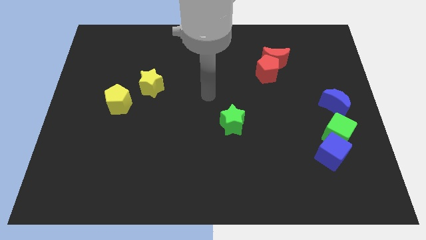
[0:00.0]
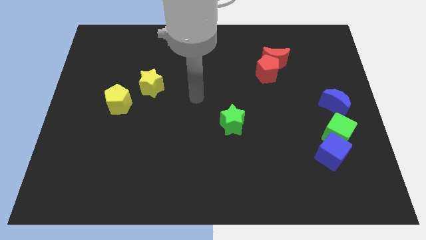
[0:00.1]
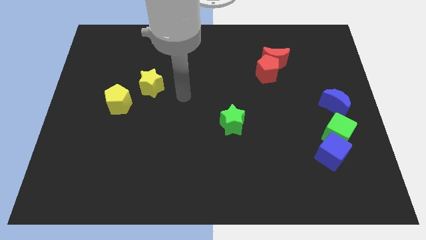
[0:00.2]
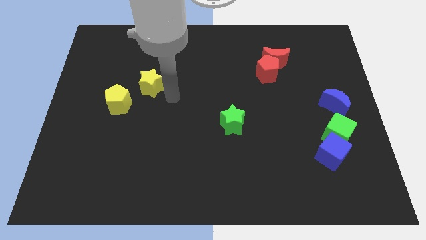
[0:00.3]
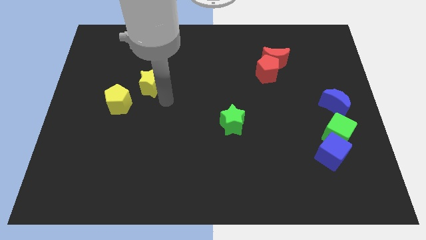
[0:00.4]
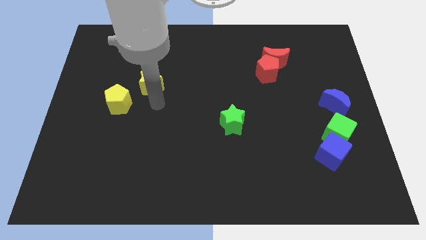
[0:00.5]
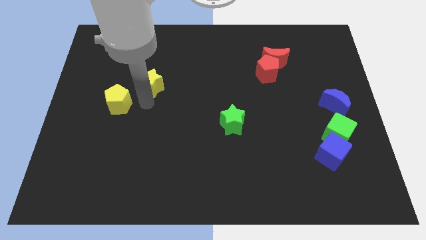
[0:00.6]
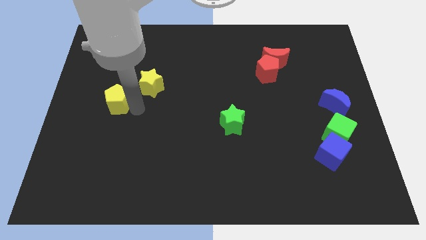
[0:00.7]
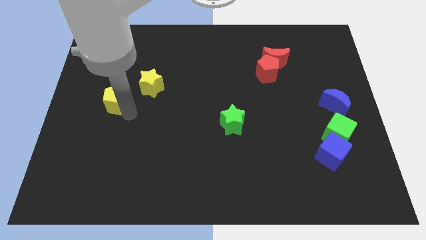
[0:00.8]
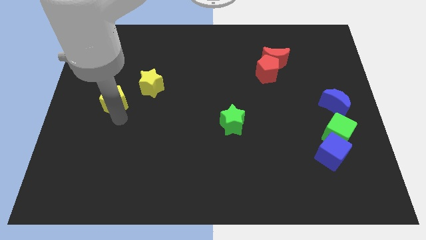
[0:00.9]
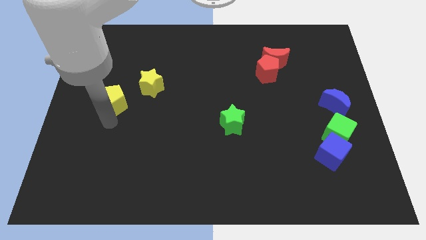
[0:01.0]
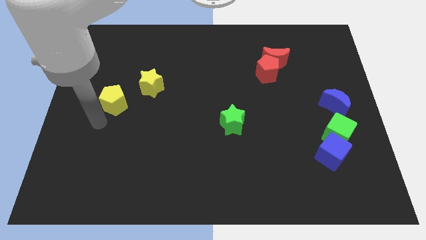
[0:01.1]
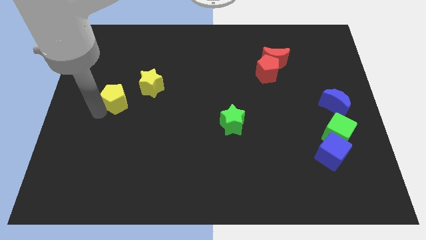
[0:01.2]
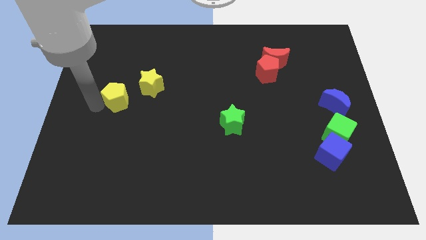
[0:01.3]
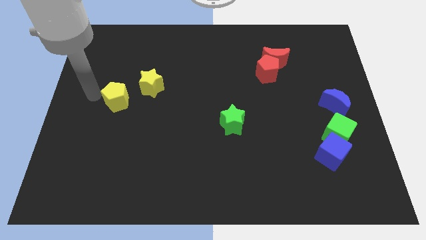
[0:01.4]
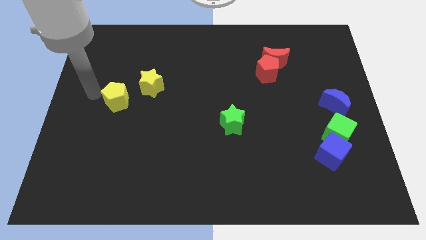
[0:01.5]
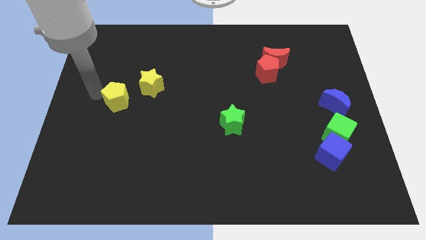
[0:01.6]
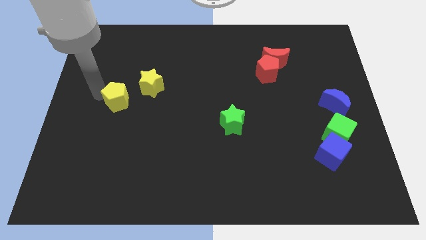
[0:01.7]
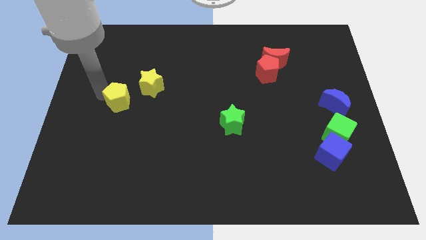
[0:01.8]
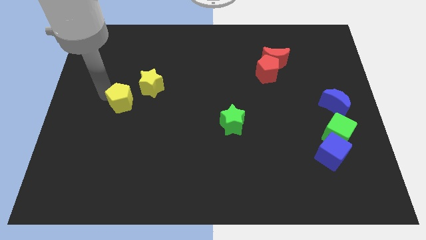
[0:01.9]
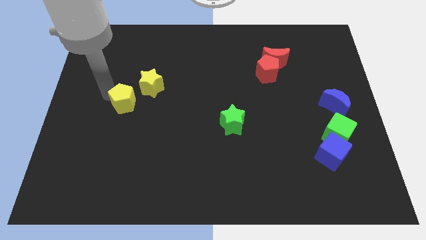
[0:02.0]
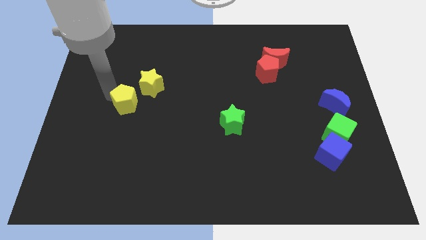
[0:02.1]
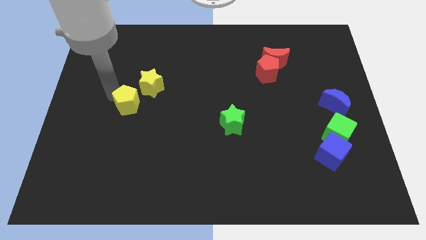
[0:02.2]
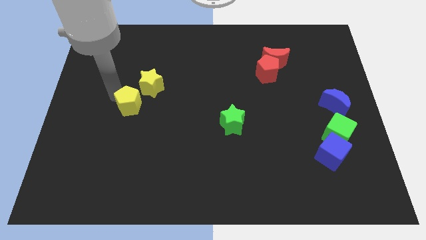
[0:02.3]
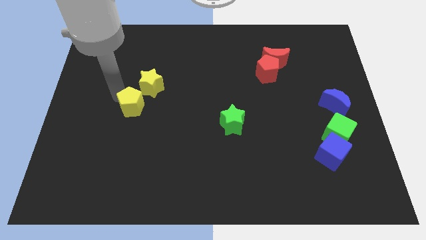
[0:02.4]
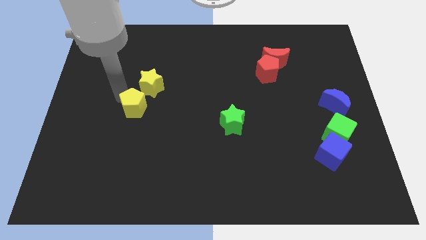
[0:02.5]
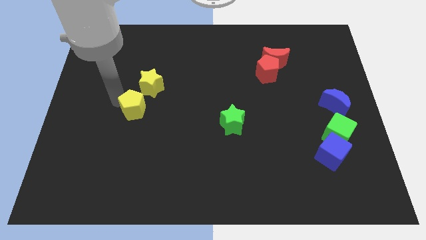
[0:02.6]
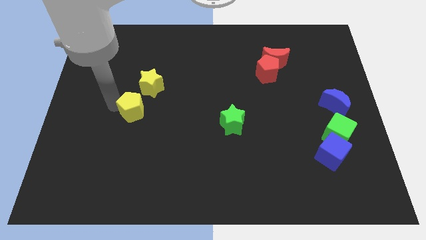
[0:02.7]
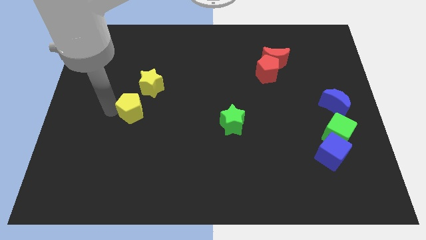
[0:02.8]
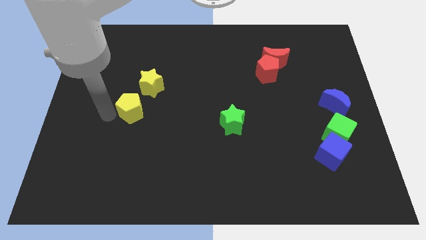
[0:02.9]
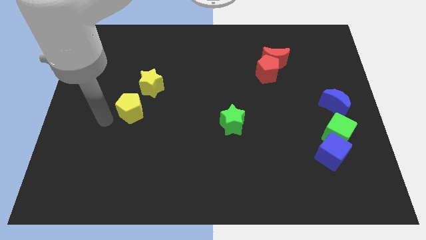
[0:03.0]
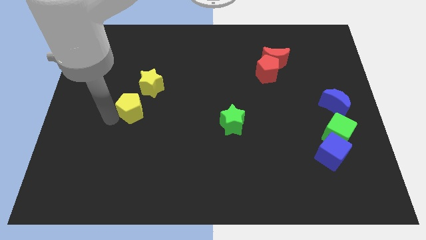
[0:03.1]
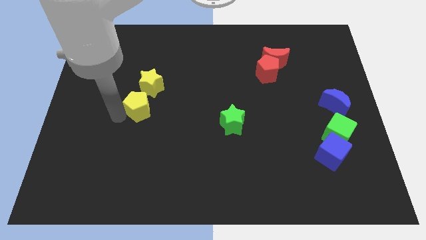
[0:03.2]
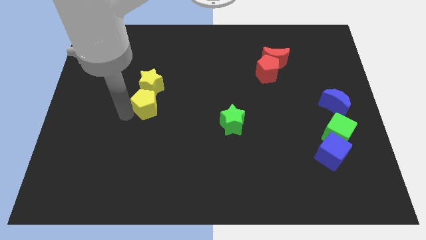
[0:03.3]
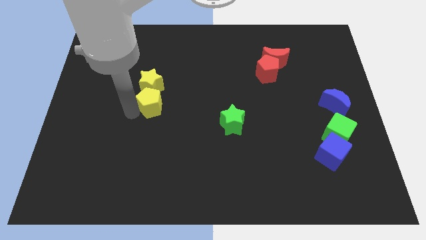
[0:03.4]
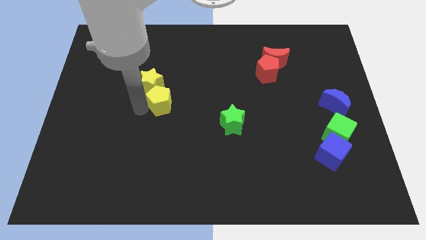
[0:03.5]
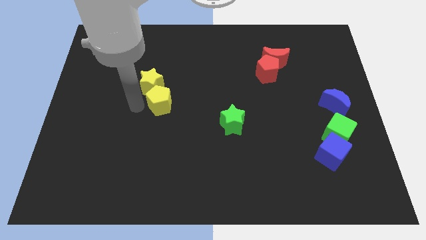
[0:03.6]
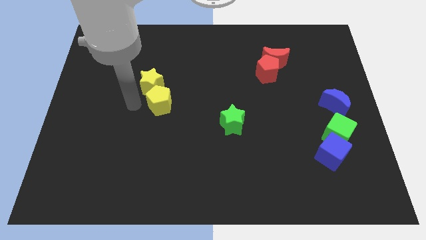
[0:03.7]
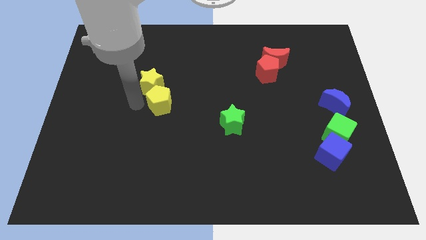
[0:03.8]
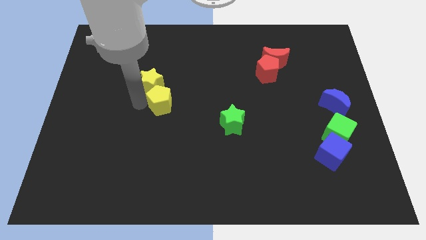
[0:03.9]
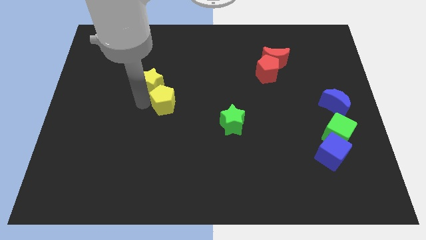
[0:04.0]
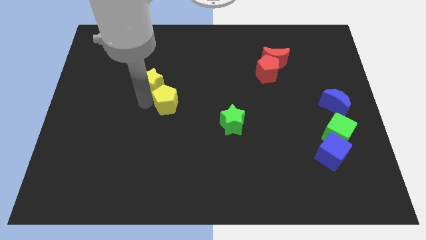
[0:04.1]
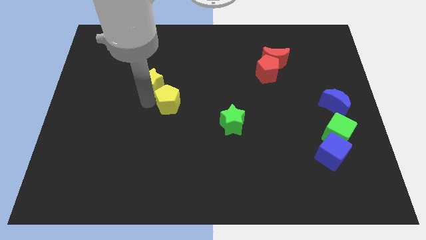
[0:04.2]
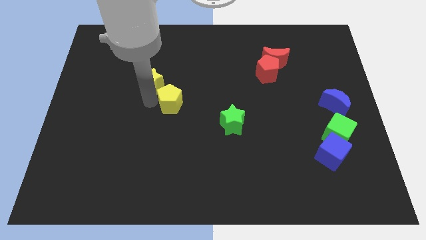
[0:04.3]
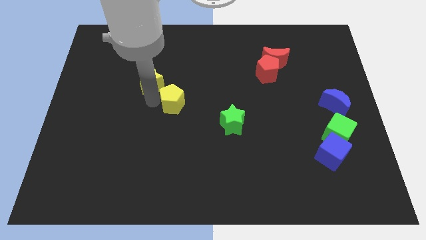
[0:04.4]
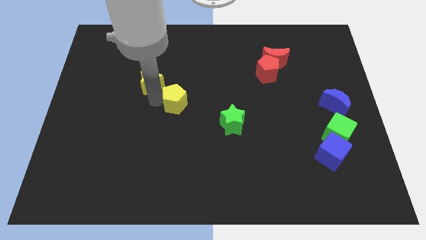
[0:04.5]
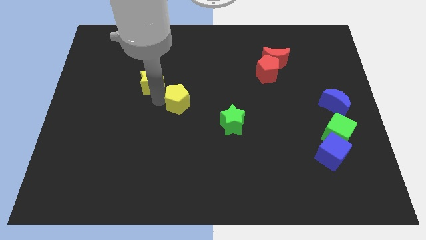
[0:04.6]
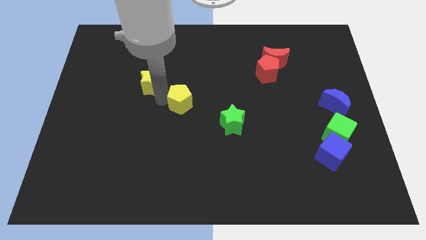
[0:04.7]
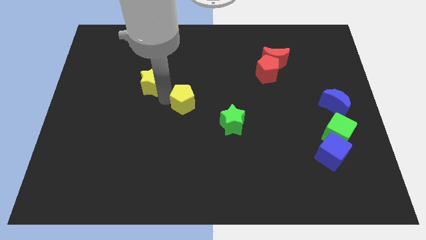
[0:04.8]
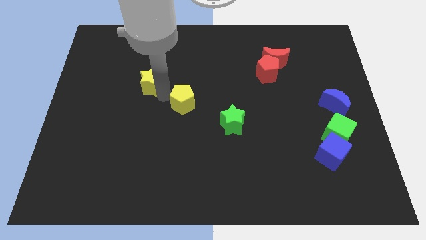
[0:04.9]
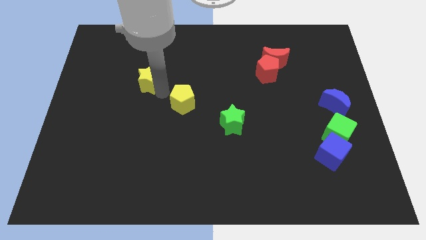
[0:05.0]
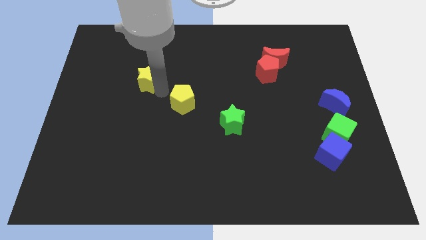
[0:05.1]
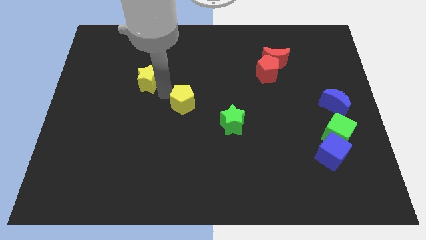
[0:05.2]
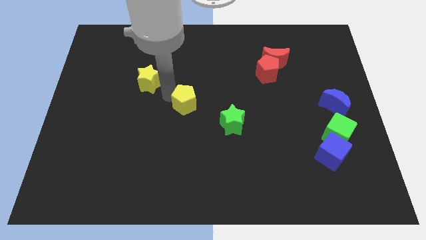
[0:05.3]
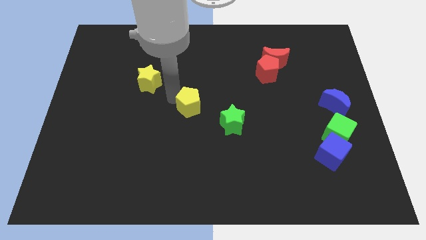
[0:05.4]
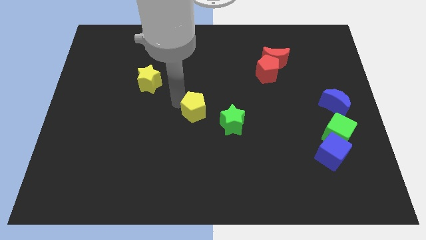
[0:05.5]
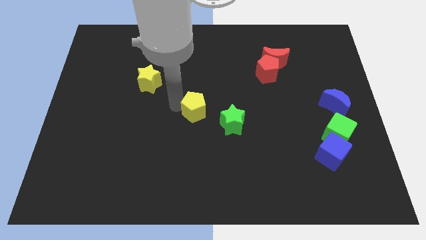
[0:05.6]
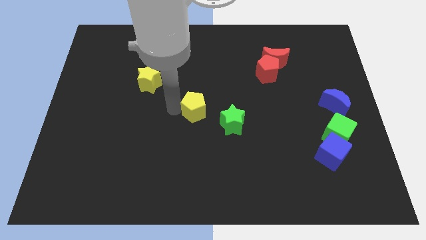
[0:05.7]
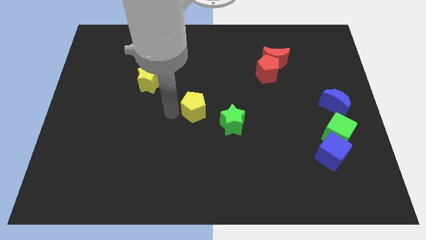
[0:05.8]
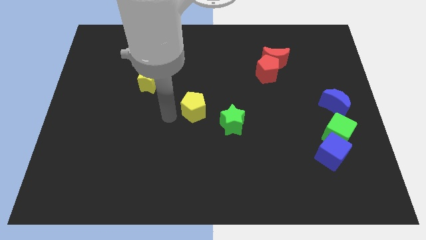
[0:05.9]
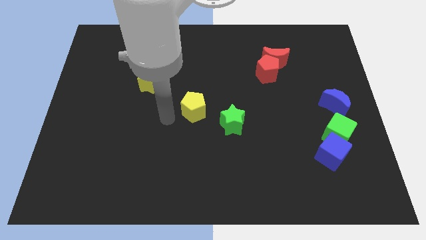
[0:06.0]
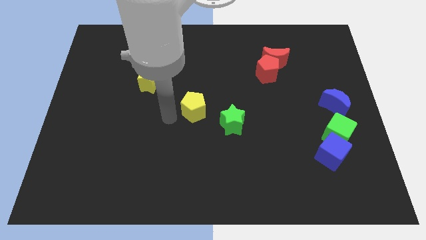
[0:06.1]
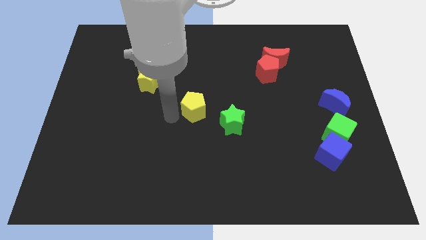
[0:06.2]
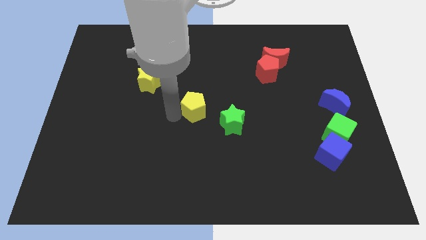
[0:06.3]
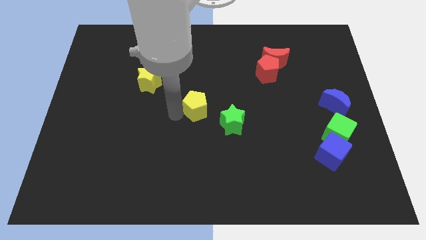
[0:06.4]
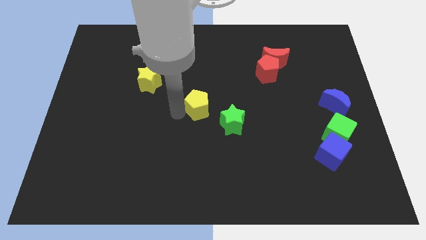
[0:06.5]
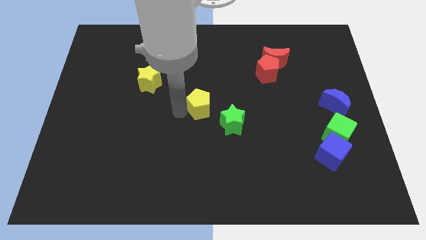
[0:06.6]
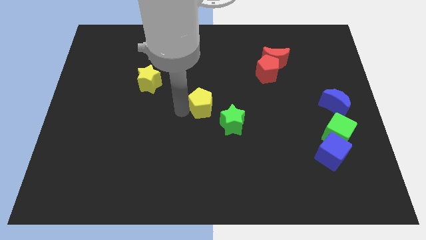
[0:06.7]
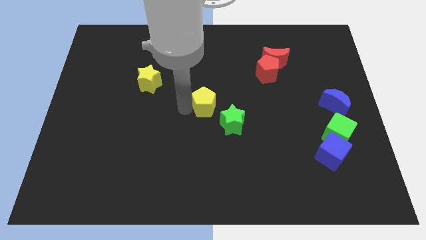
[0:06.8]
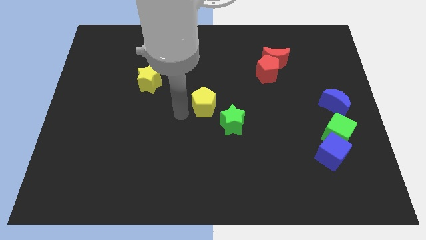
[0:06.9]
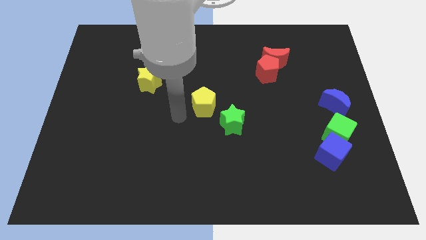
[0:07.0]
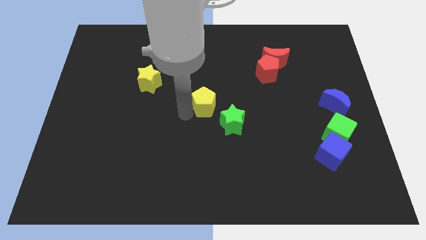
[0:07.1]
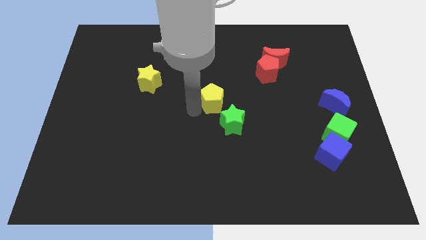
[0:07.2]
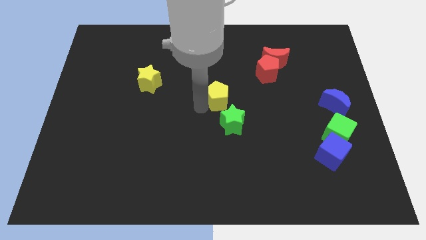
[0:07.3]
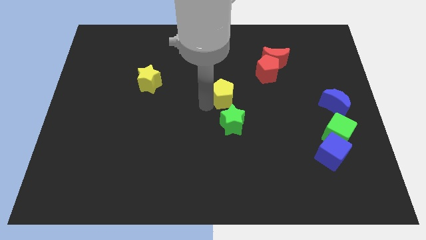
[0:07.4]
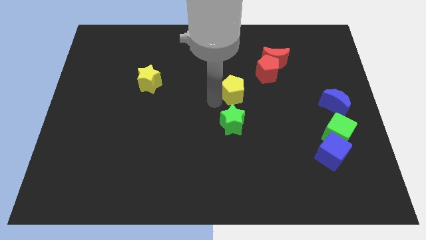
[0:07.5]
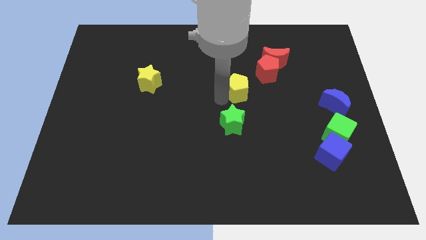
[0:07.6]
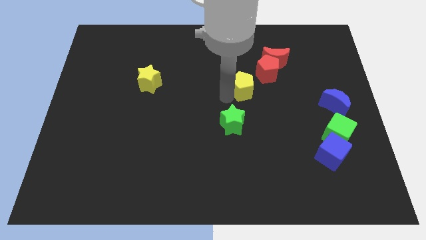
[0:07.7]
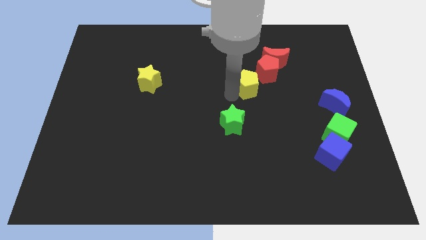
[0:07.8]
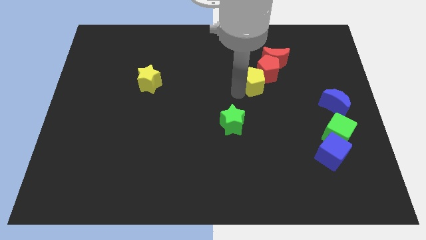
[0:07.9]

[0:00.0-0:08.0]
move the yellow pentagon towards the red pentagon
